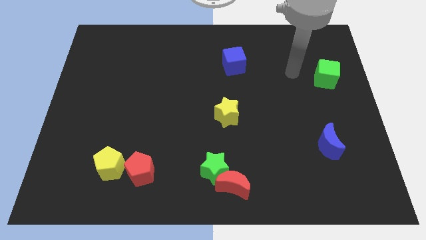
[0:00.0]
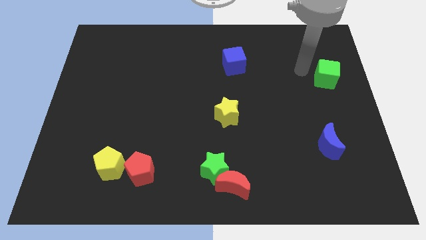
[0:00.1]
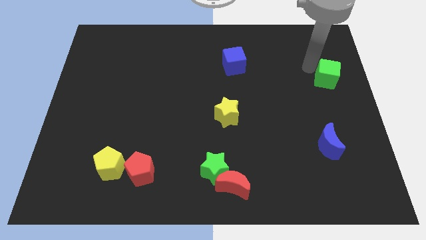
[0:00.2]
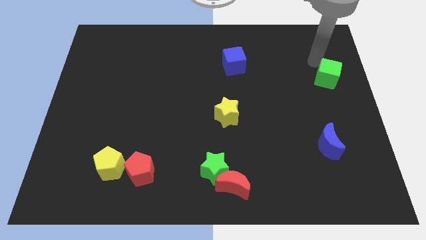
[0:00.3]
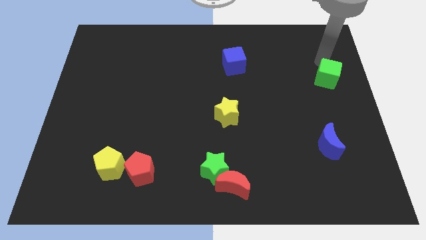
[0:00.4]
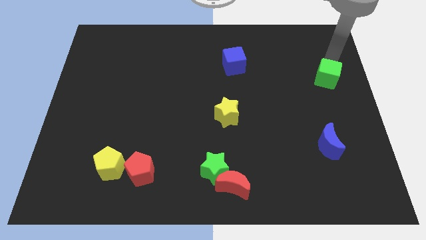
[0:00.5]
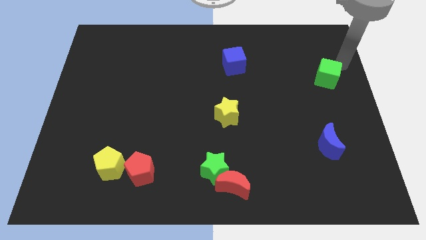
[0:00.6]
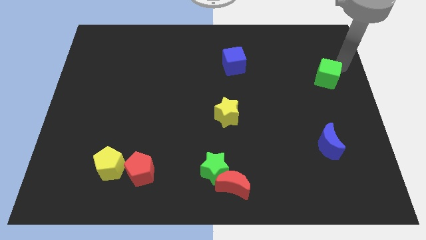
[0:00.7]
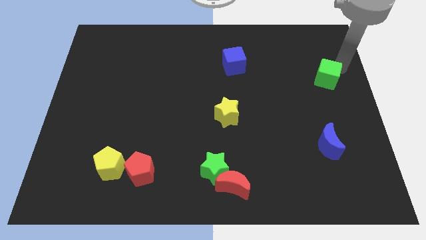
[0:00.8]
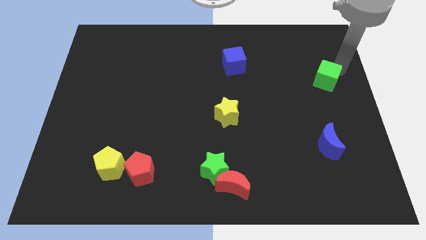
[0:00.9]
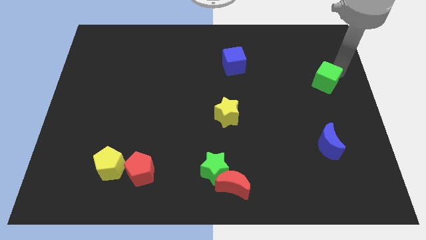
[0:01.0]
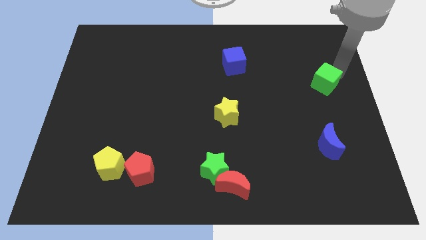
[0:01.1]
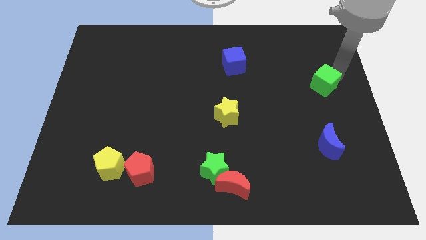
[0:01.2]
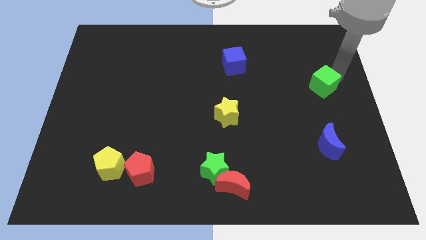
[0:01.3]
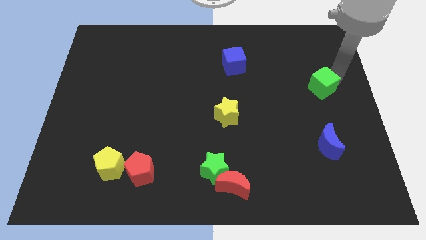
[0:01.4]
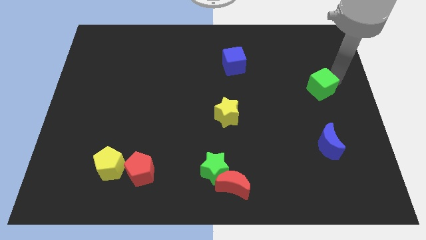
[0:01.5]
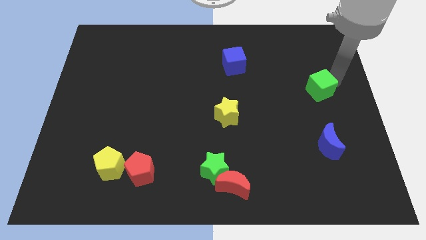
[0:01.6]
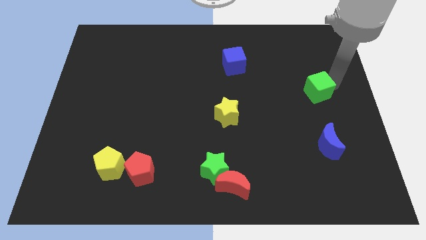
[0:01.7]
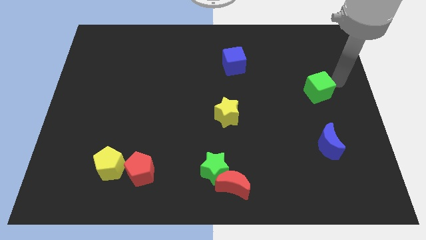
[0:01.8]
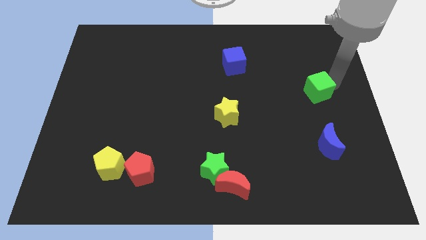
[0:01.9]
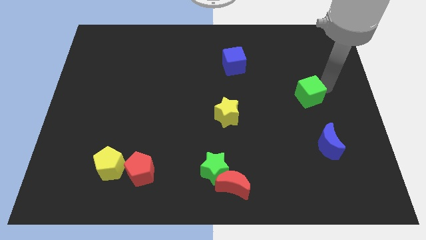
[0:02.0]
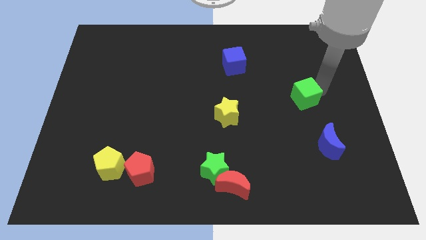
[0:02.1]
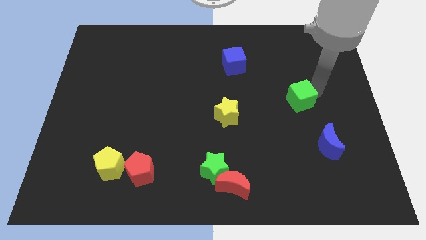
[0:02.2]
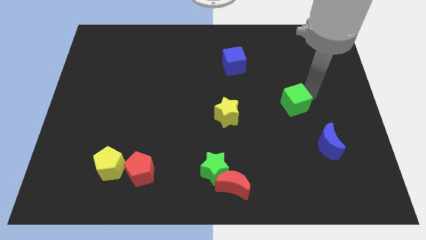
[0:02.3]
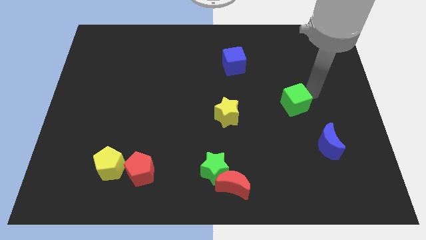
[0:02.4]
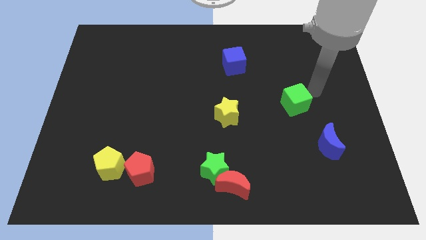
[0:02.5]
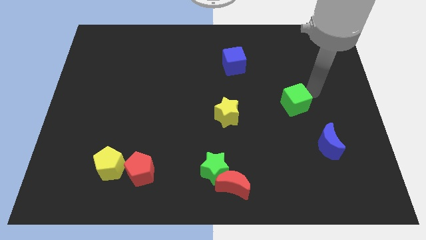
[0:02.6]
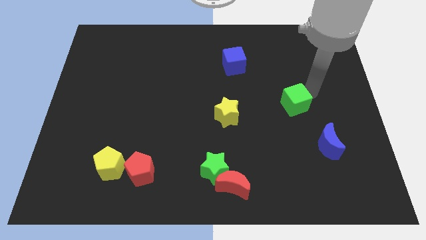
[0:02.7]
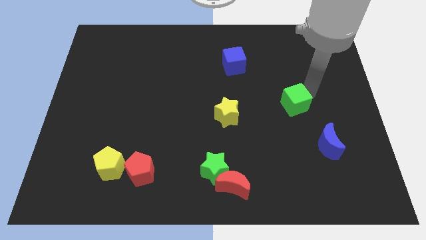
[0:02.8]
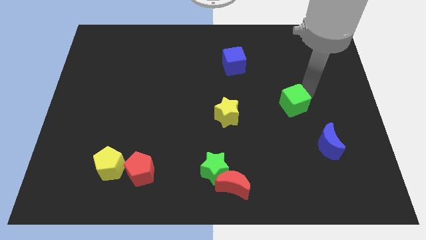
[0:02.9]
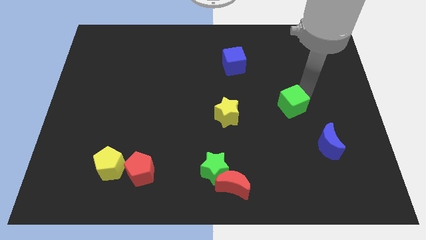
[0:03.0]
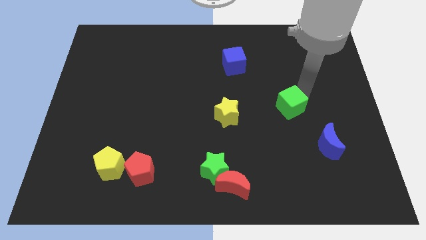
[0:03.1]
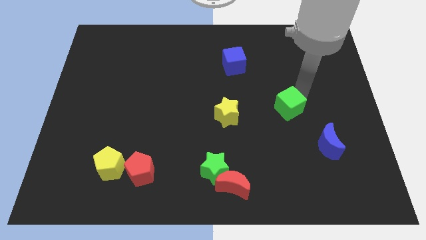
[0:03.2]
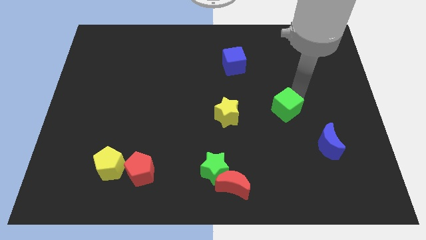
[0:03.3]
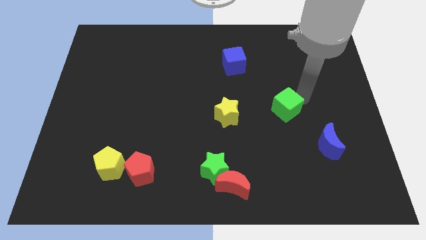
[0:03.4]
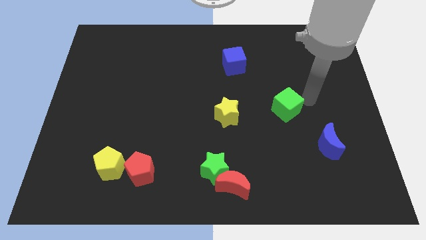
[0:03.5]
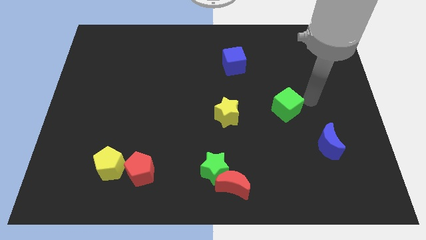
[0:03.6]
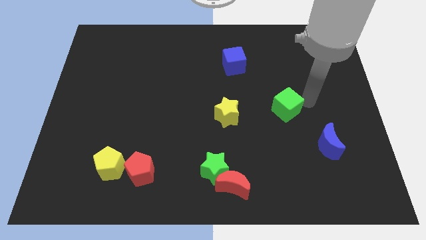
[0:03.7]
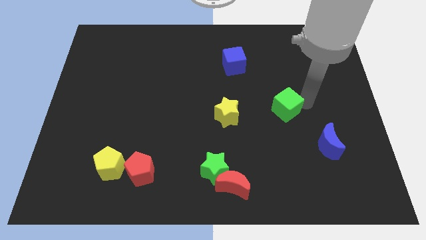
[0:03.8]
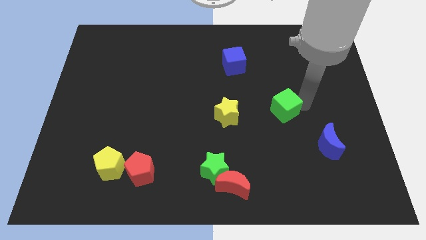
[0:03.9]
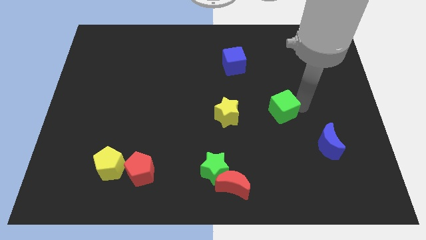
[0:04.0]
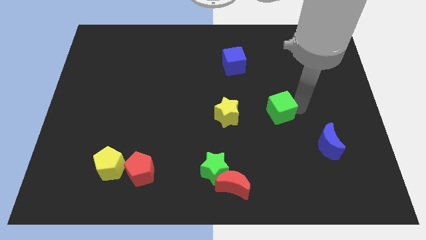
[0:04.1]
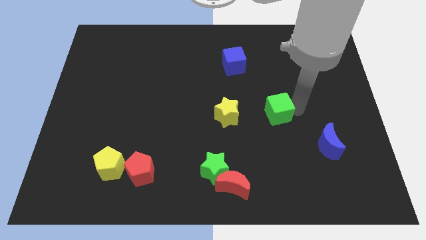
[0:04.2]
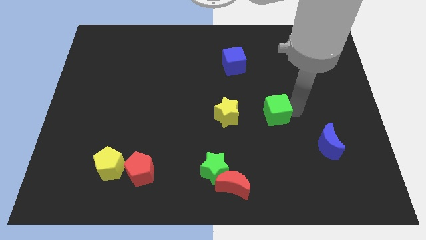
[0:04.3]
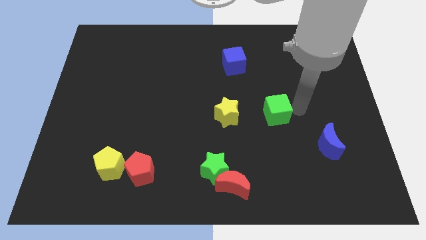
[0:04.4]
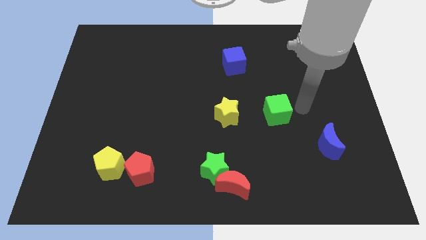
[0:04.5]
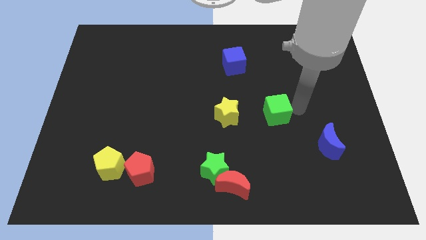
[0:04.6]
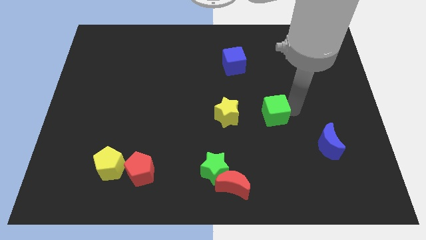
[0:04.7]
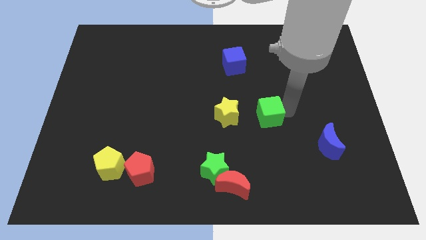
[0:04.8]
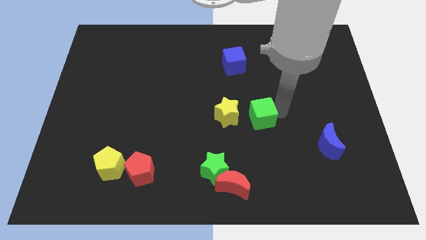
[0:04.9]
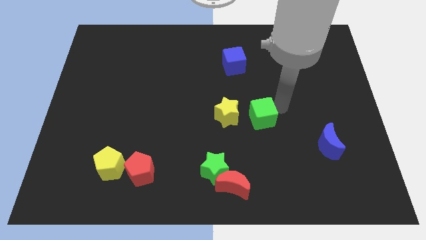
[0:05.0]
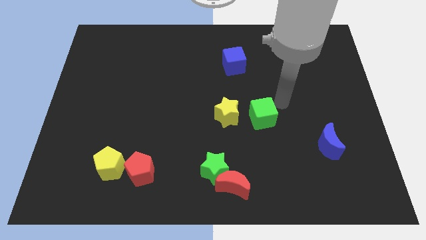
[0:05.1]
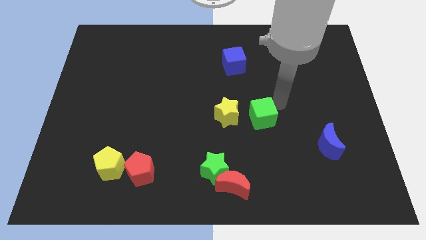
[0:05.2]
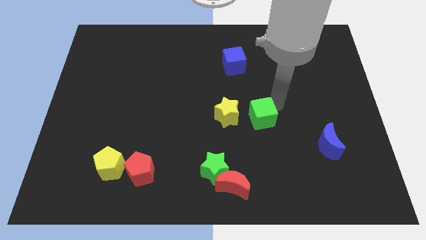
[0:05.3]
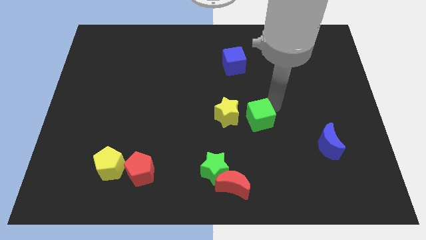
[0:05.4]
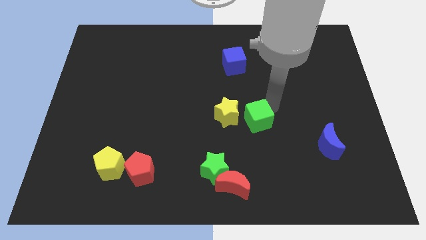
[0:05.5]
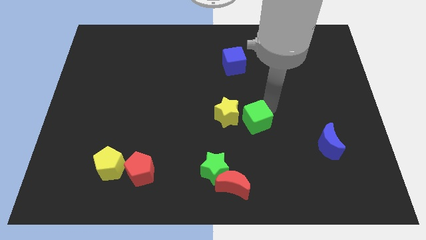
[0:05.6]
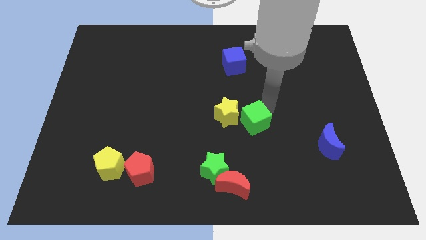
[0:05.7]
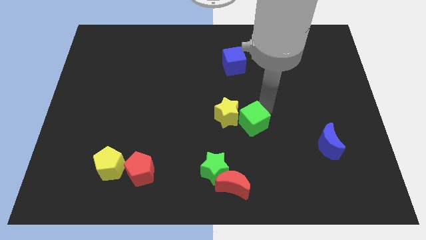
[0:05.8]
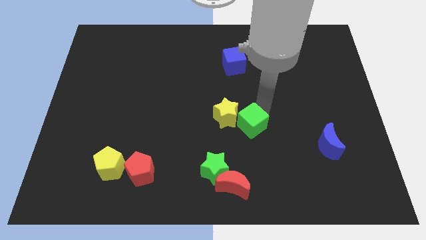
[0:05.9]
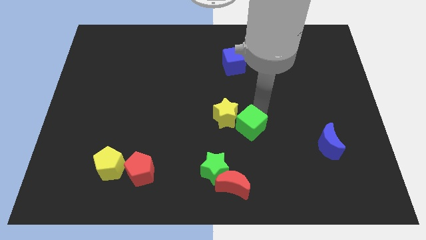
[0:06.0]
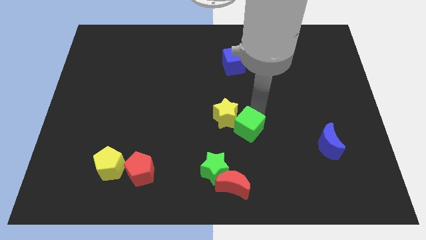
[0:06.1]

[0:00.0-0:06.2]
slide the green cube above the red moon
